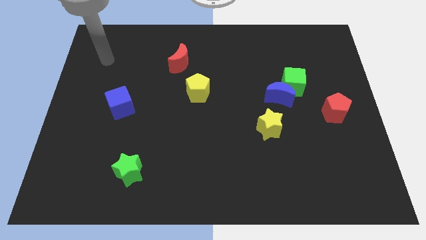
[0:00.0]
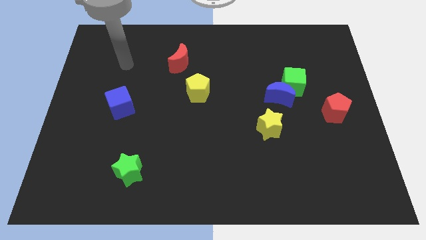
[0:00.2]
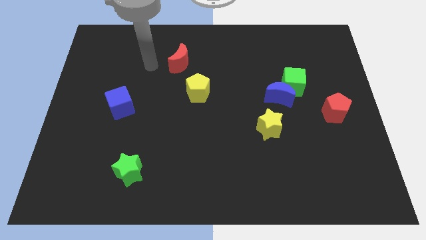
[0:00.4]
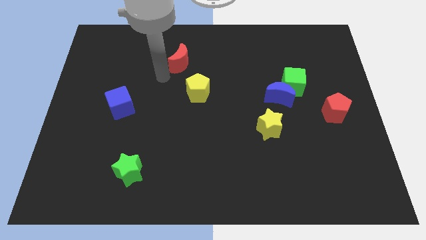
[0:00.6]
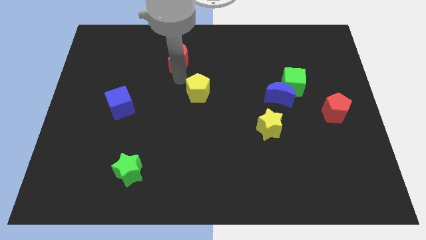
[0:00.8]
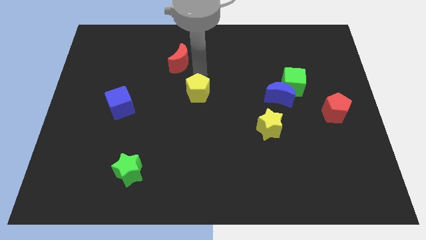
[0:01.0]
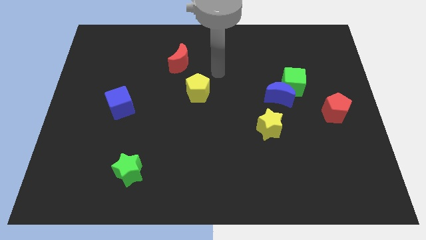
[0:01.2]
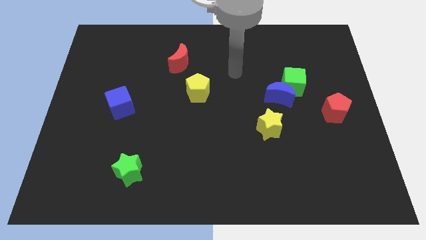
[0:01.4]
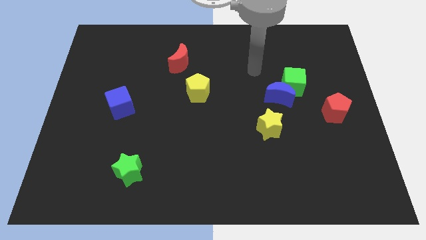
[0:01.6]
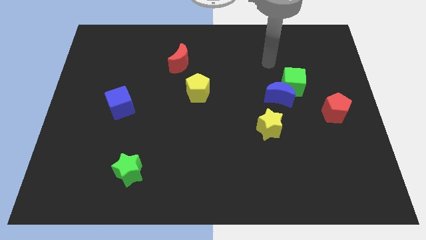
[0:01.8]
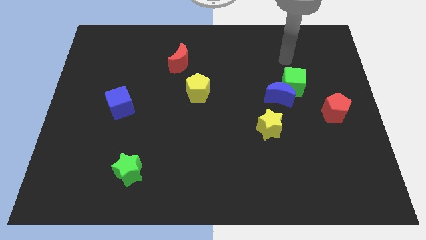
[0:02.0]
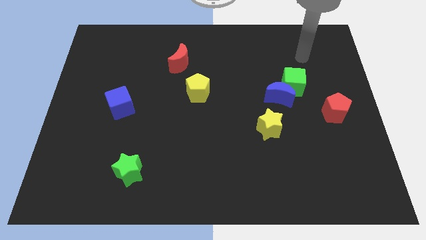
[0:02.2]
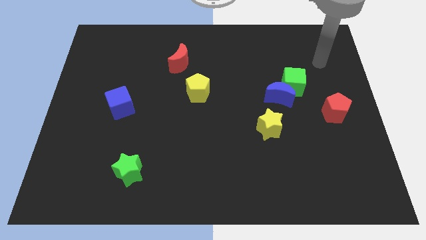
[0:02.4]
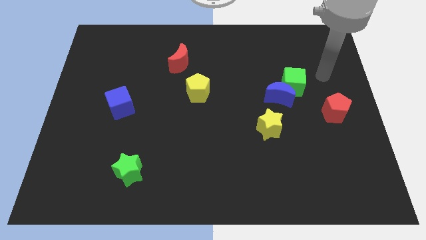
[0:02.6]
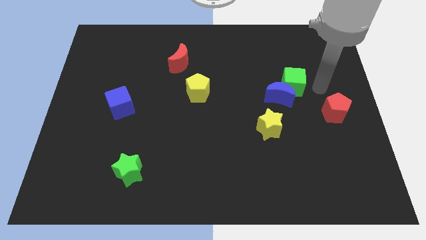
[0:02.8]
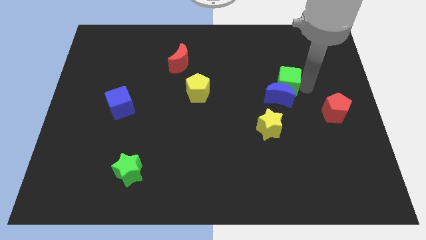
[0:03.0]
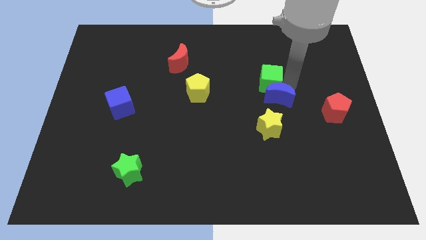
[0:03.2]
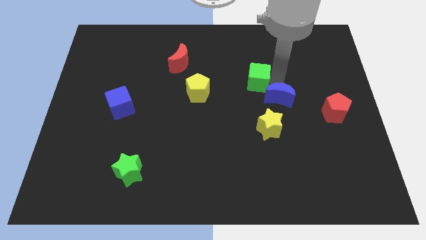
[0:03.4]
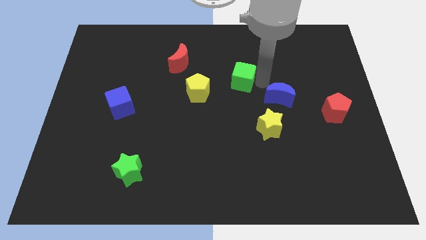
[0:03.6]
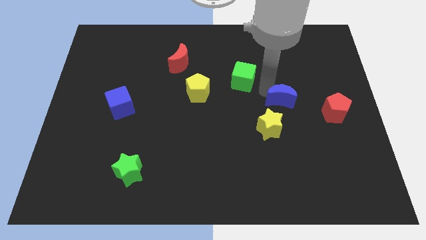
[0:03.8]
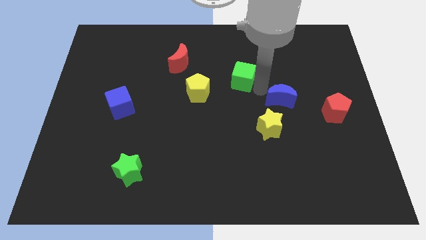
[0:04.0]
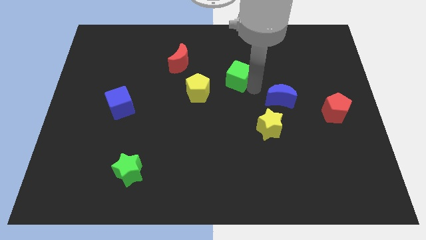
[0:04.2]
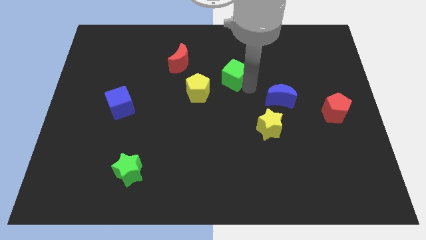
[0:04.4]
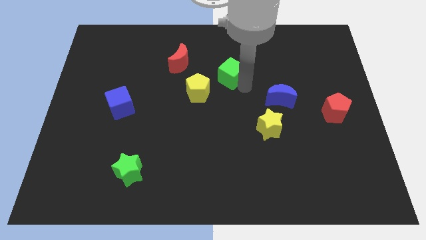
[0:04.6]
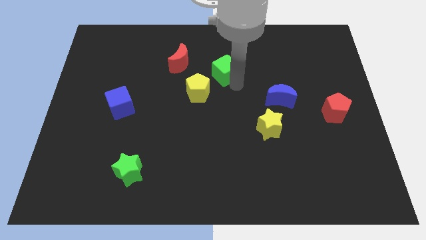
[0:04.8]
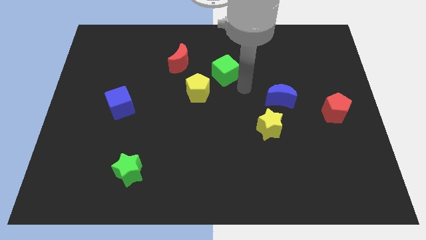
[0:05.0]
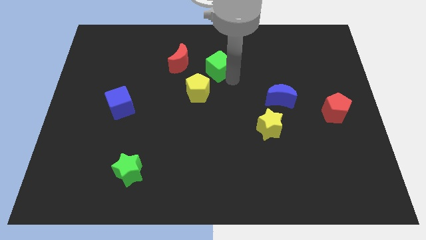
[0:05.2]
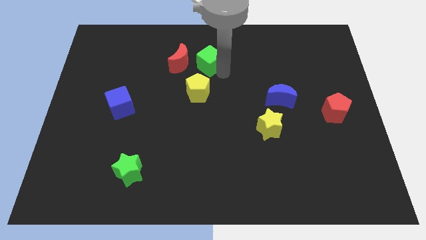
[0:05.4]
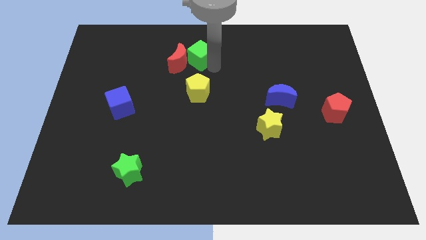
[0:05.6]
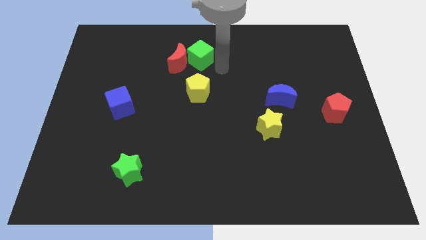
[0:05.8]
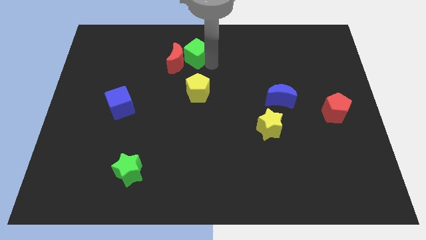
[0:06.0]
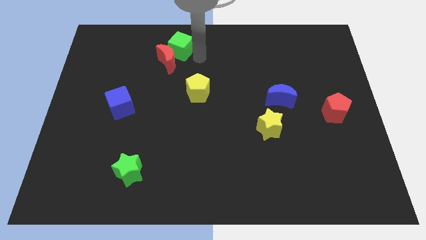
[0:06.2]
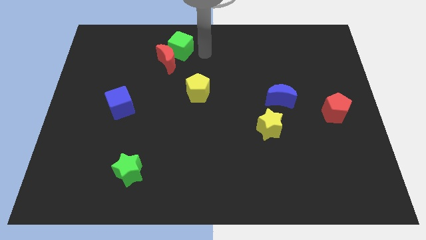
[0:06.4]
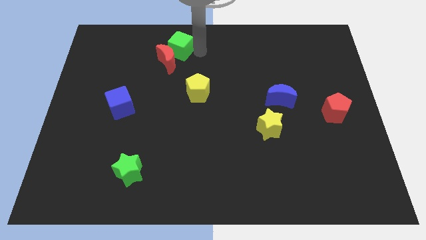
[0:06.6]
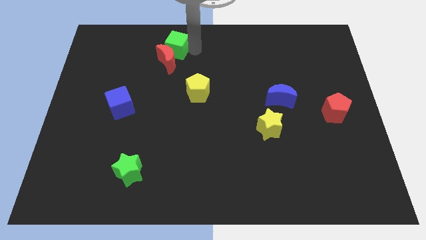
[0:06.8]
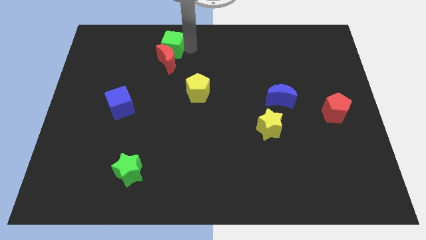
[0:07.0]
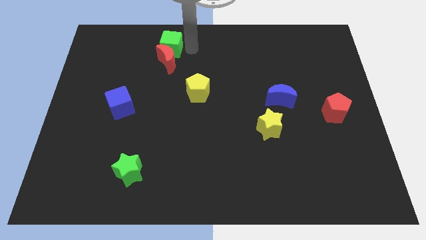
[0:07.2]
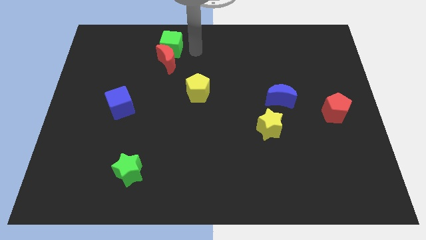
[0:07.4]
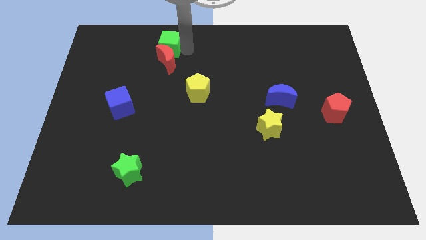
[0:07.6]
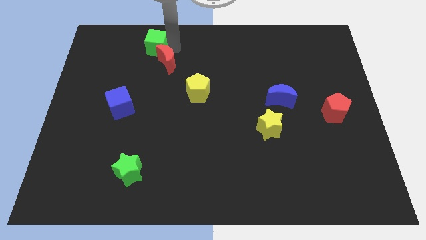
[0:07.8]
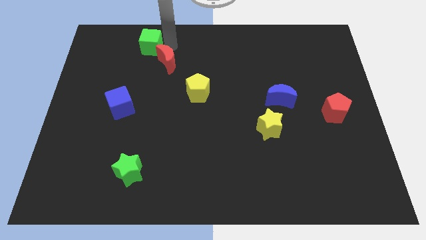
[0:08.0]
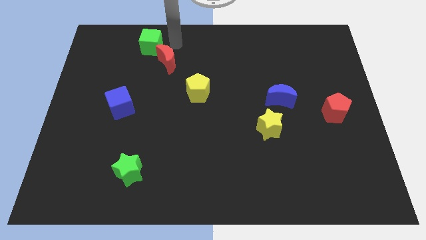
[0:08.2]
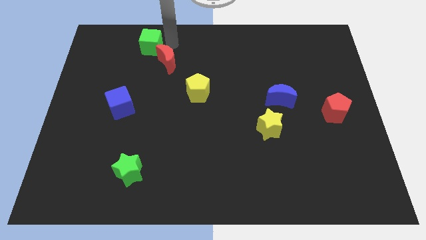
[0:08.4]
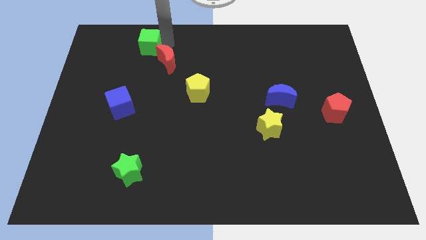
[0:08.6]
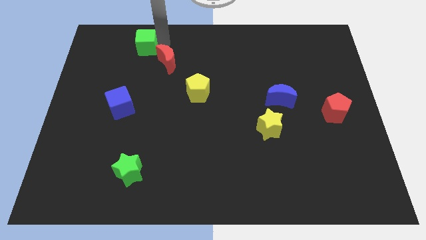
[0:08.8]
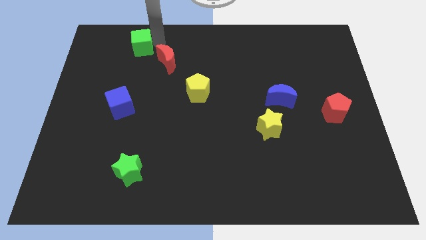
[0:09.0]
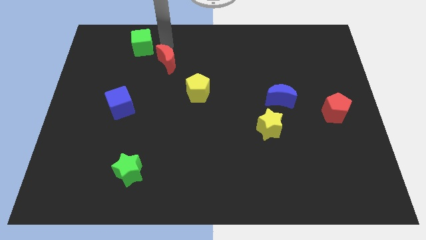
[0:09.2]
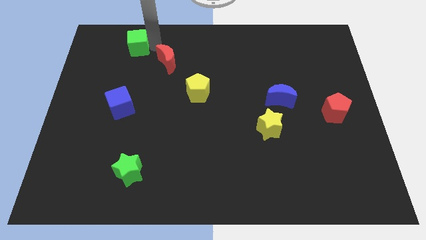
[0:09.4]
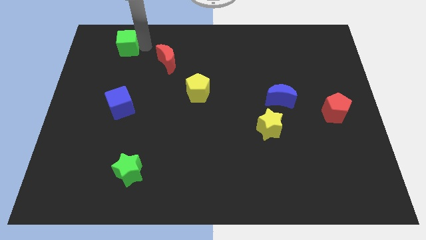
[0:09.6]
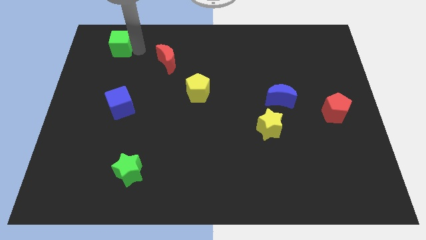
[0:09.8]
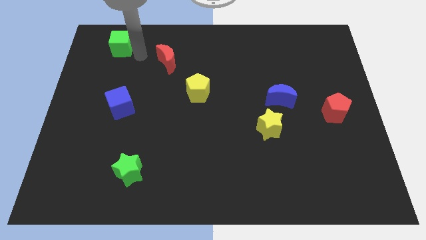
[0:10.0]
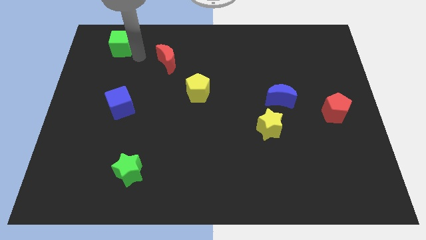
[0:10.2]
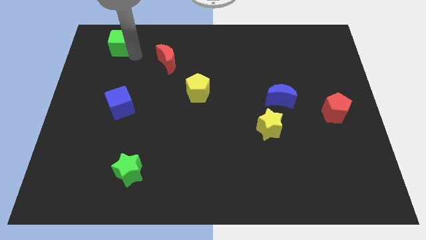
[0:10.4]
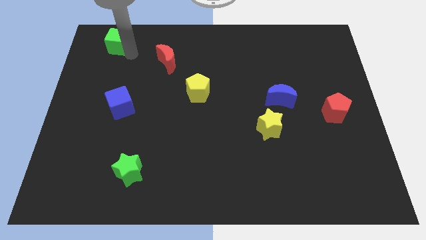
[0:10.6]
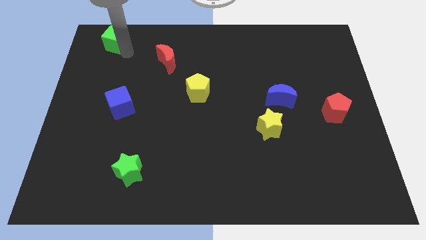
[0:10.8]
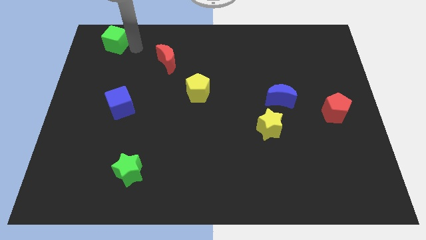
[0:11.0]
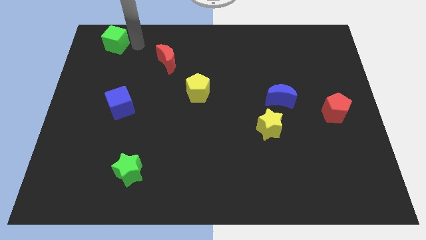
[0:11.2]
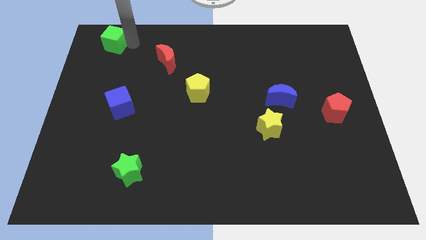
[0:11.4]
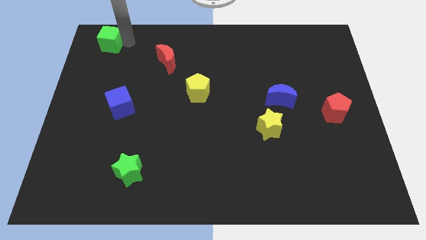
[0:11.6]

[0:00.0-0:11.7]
slide the green cube to the upper left corner
